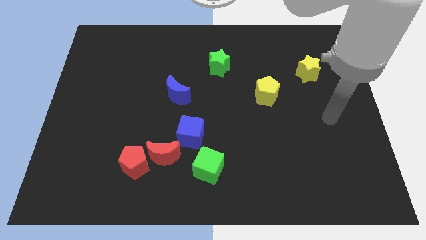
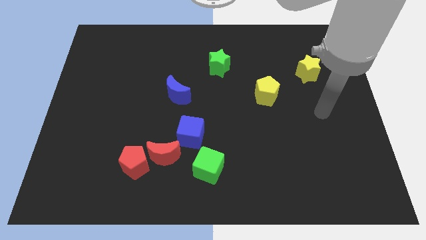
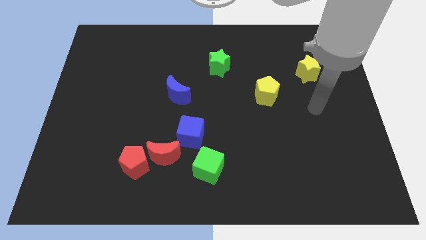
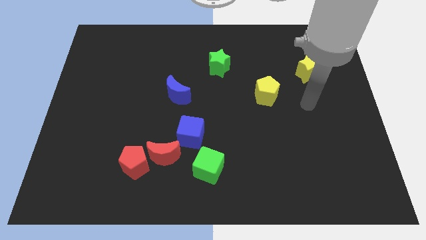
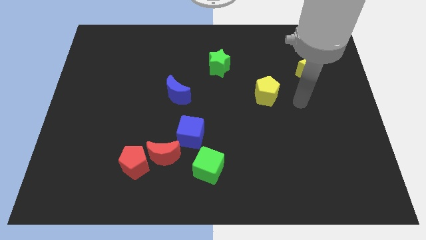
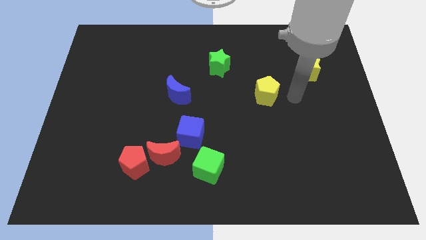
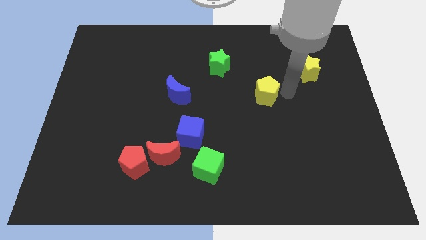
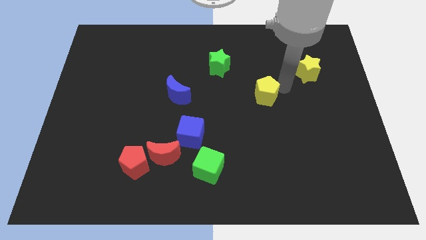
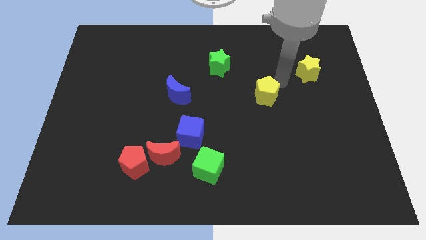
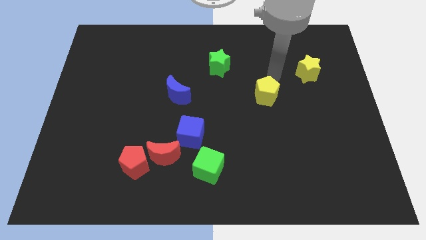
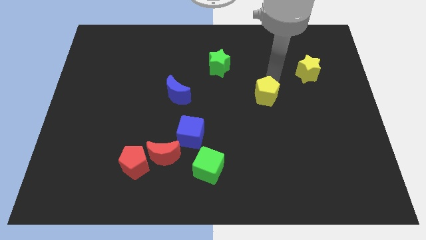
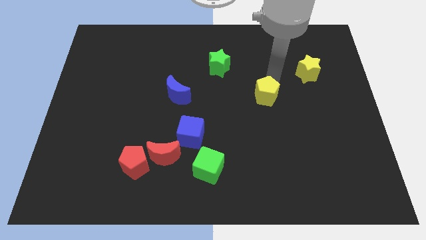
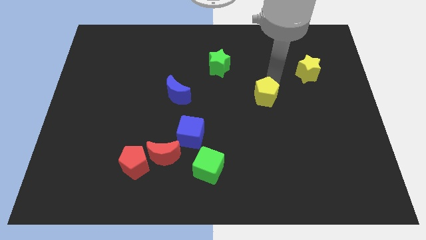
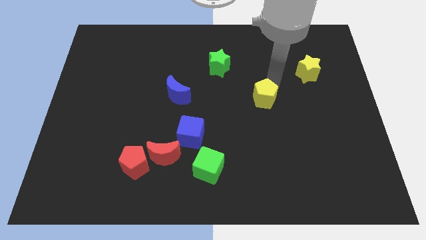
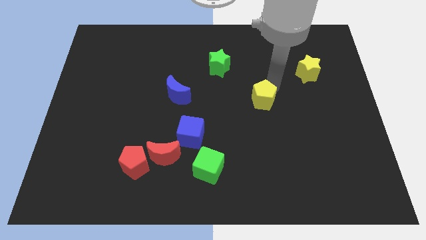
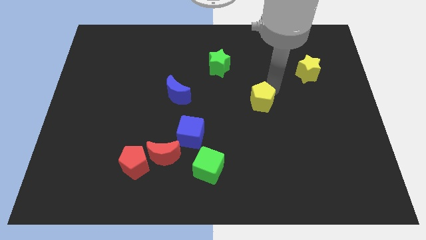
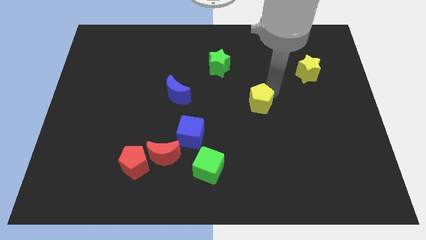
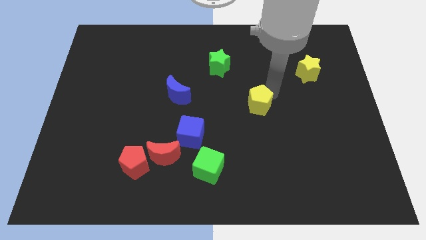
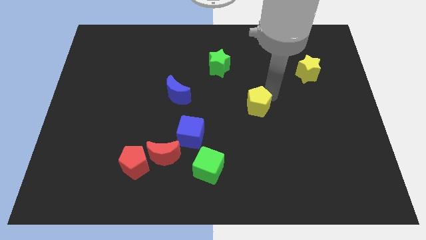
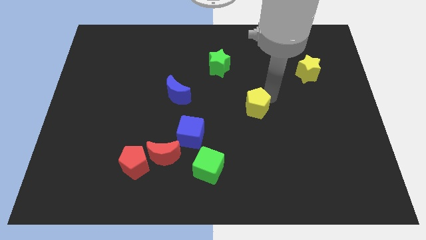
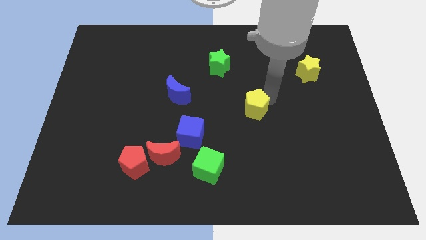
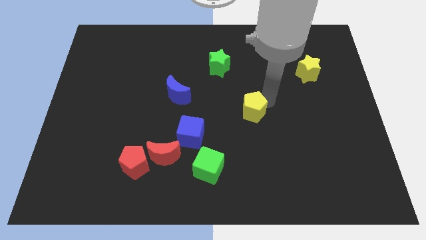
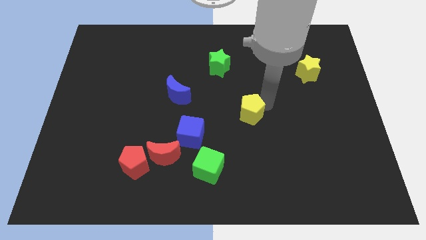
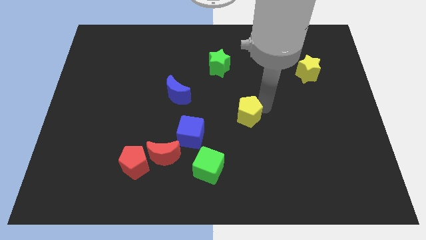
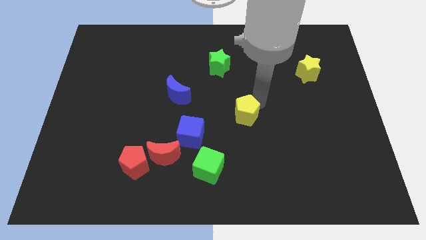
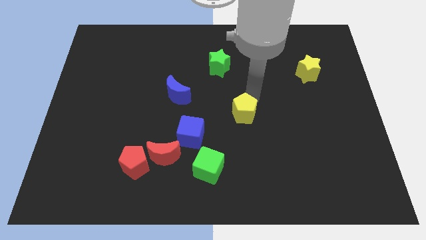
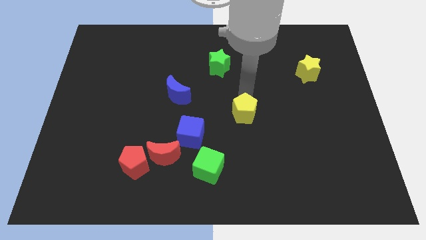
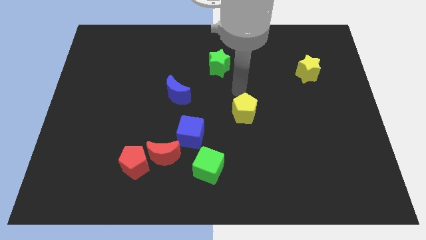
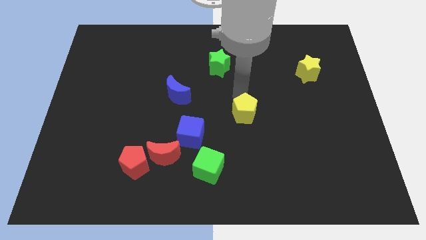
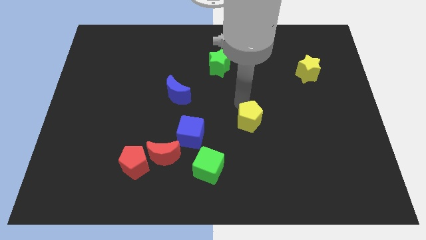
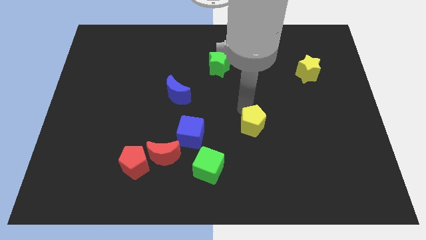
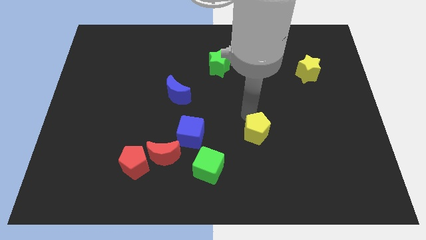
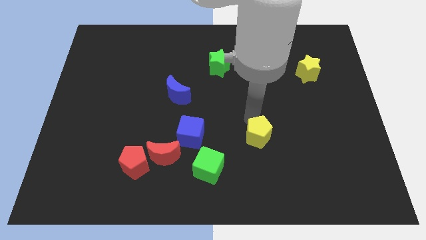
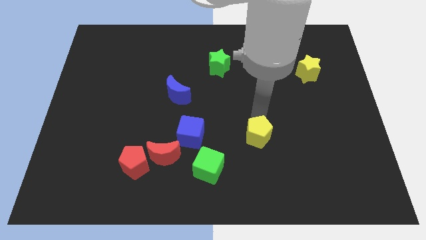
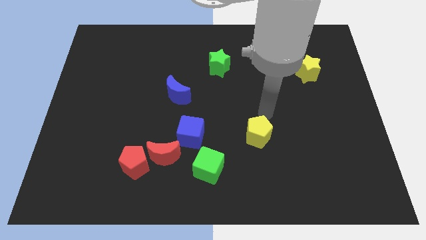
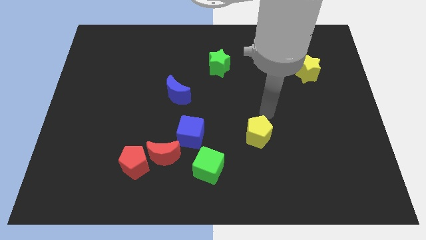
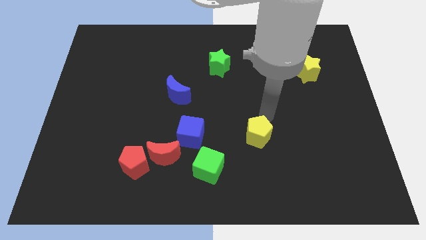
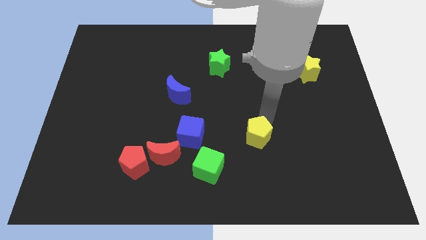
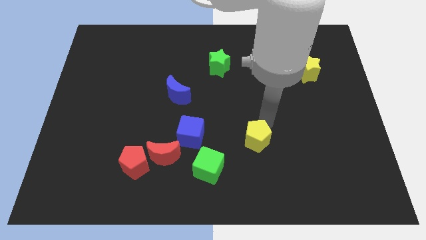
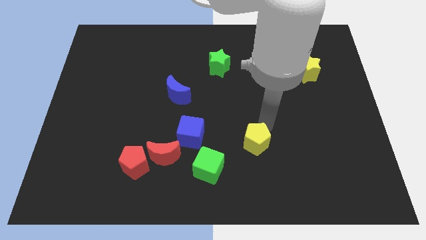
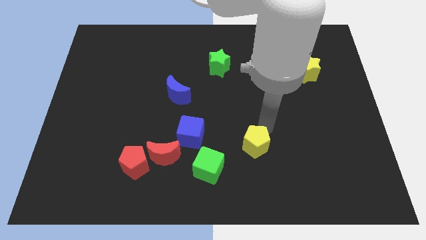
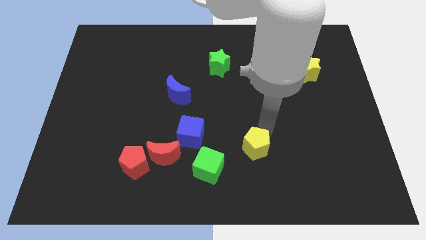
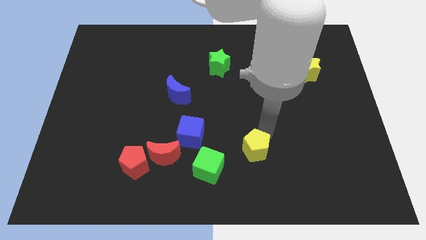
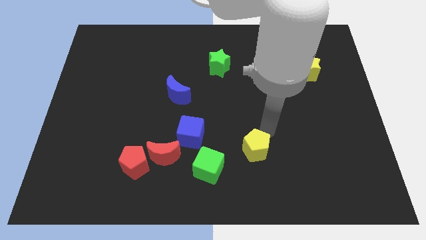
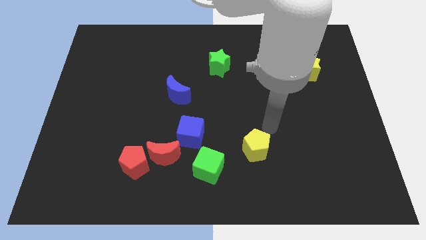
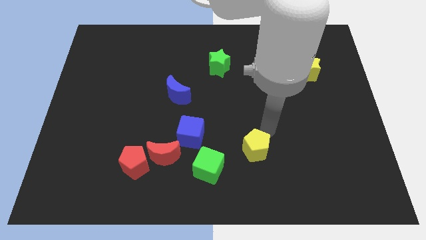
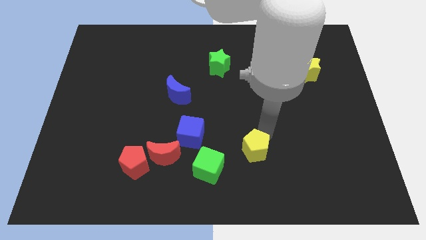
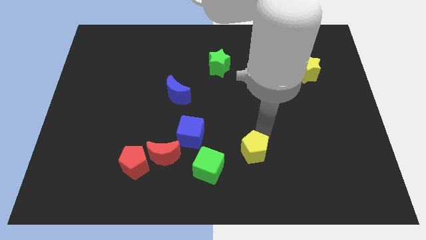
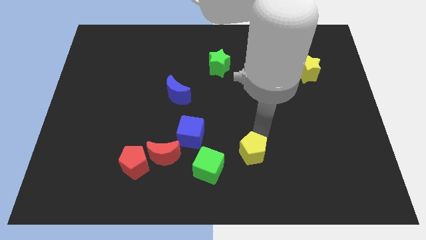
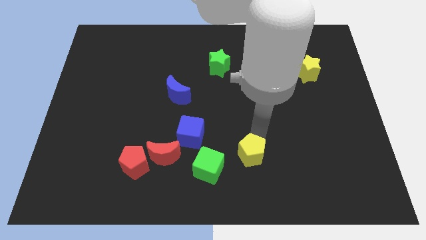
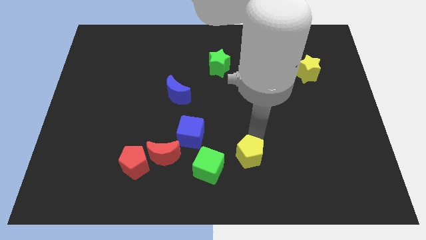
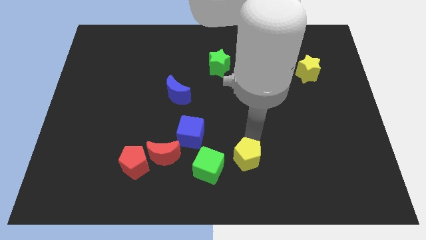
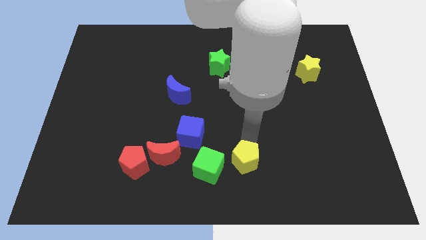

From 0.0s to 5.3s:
put the yellow pentagon to the bottom side
